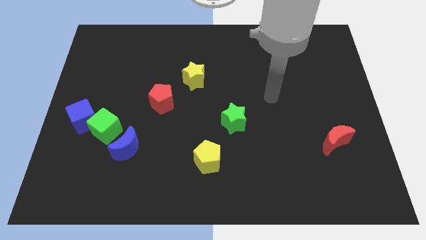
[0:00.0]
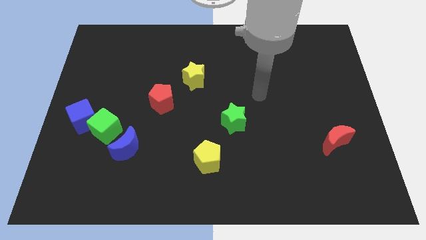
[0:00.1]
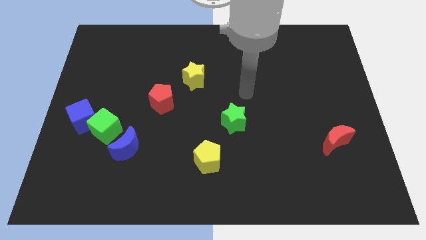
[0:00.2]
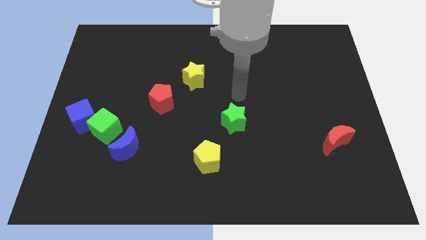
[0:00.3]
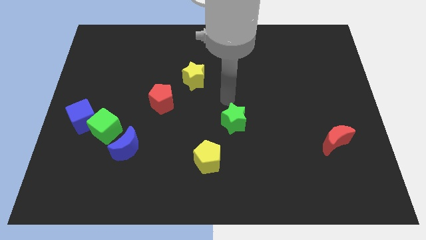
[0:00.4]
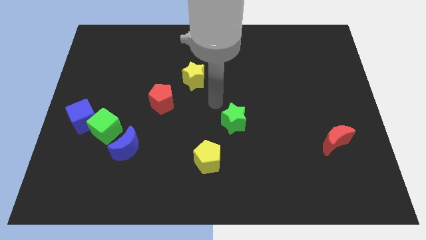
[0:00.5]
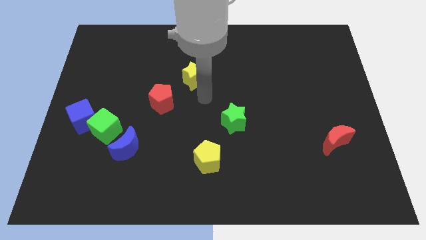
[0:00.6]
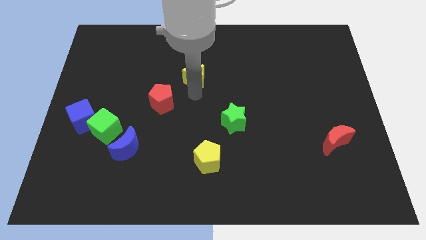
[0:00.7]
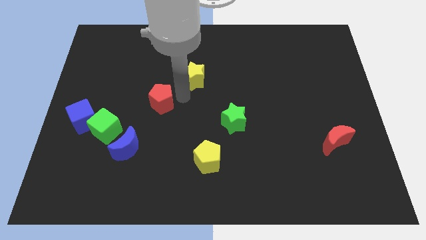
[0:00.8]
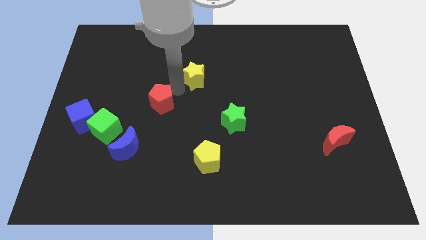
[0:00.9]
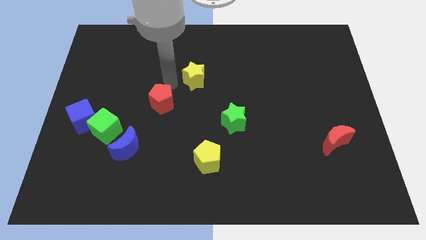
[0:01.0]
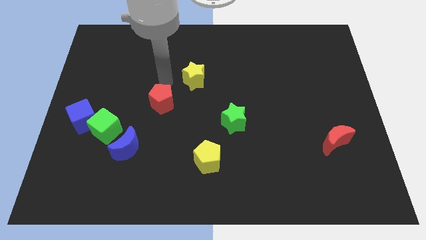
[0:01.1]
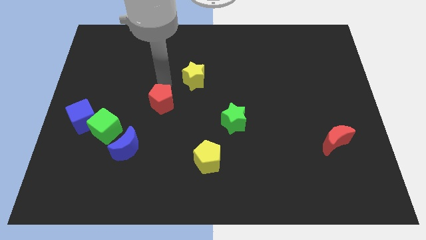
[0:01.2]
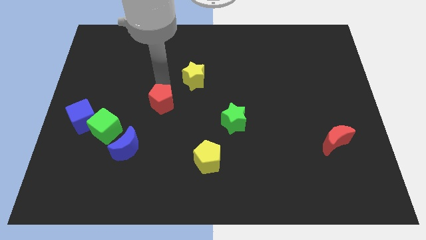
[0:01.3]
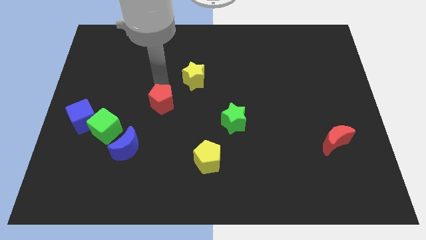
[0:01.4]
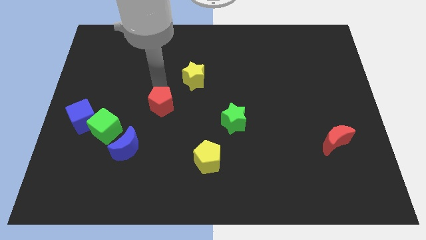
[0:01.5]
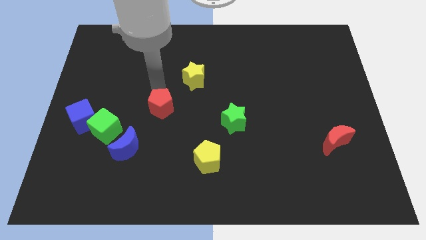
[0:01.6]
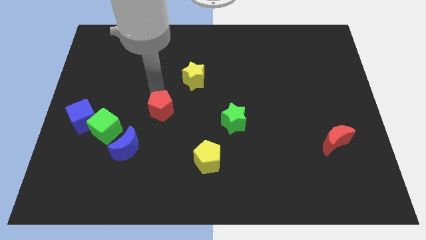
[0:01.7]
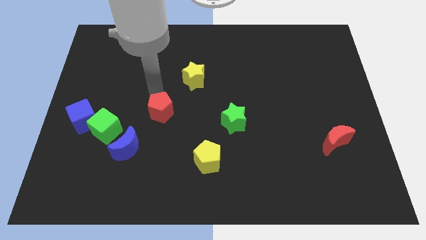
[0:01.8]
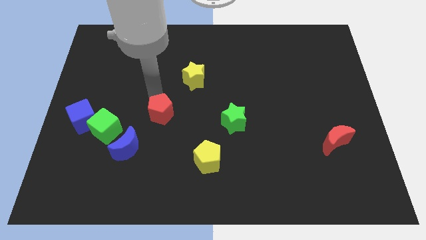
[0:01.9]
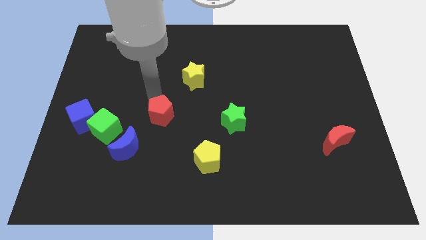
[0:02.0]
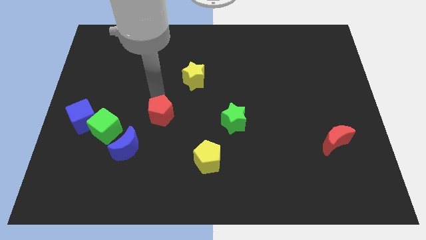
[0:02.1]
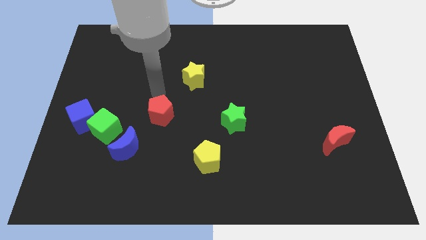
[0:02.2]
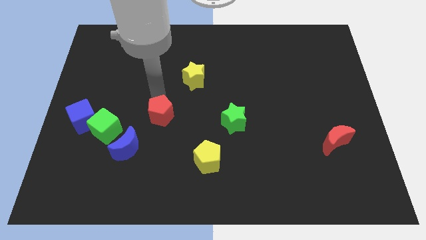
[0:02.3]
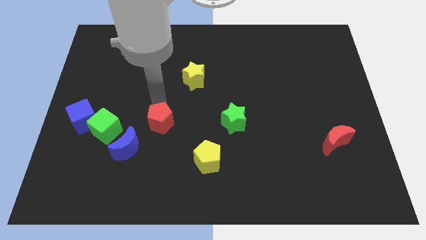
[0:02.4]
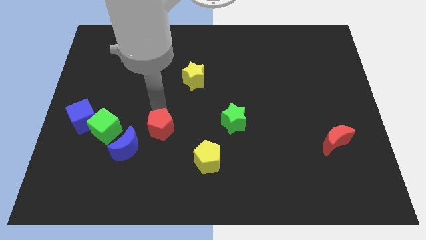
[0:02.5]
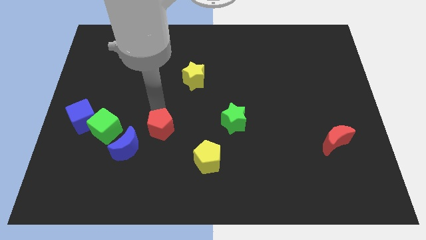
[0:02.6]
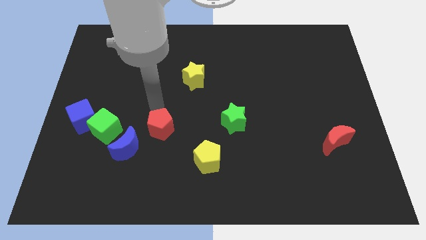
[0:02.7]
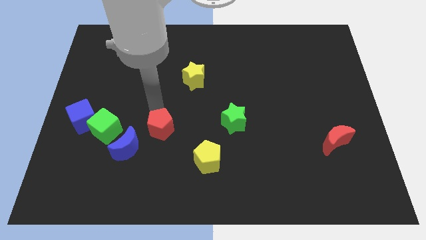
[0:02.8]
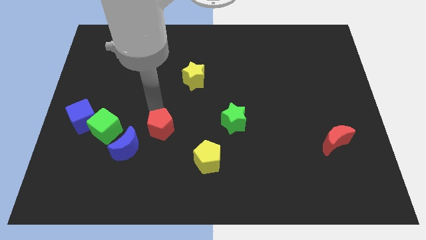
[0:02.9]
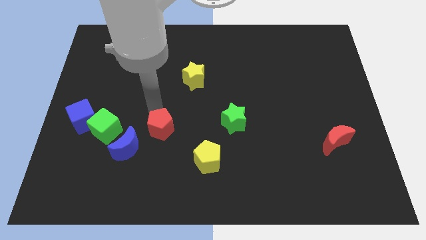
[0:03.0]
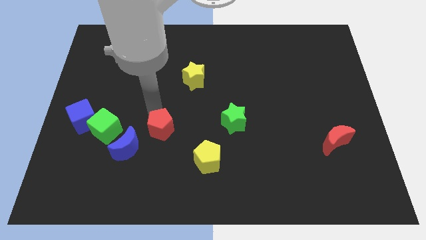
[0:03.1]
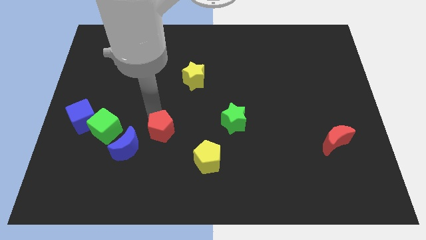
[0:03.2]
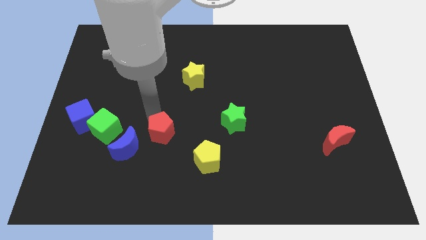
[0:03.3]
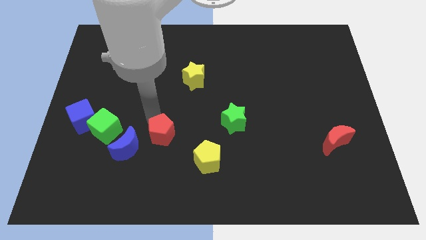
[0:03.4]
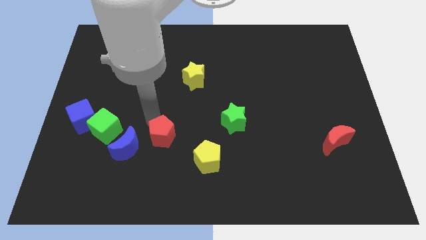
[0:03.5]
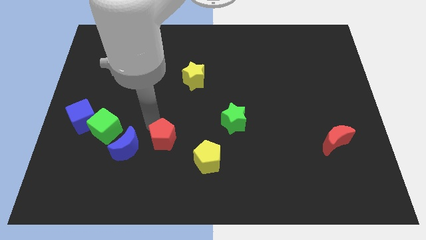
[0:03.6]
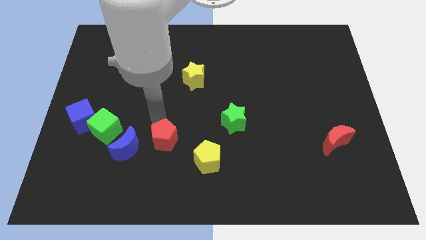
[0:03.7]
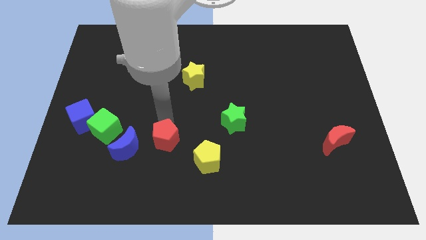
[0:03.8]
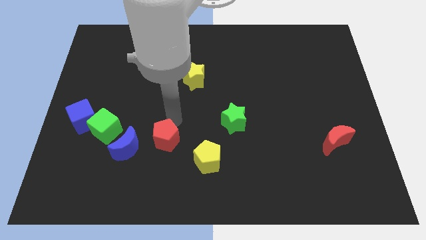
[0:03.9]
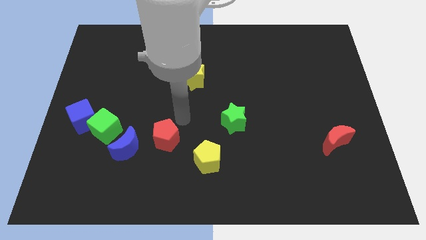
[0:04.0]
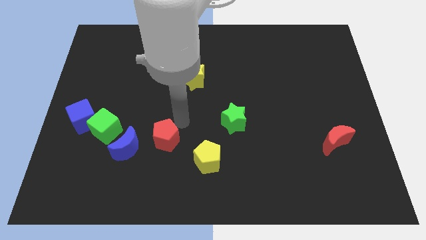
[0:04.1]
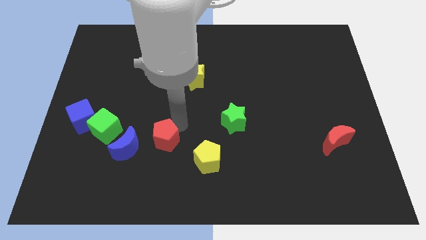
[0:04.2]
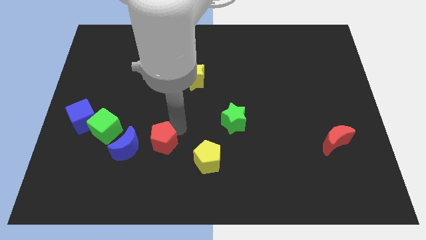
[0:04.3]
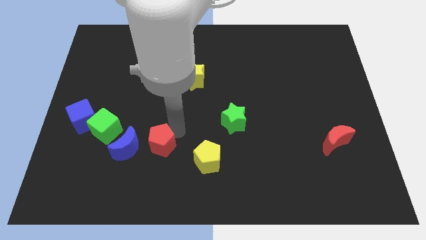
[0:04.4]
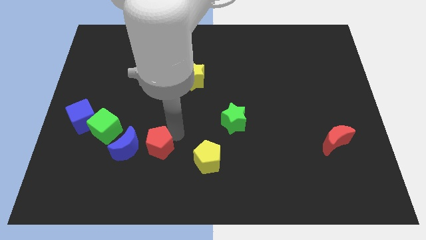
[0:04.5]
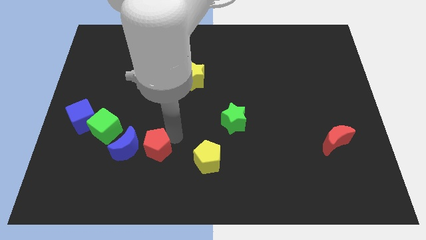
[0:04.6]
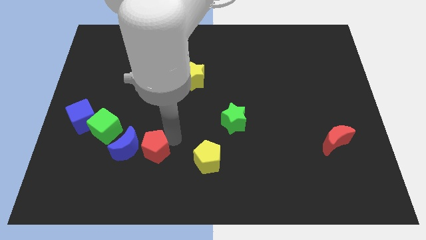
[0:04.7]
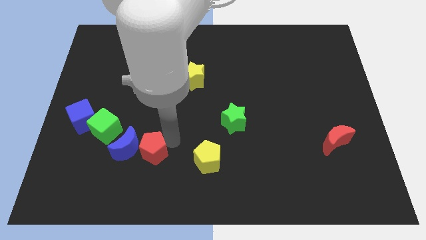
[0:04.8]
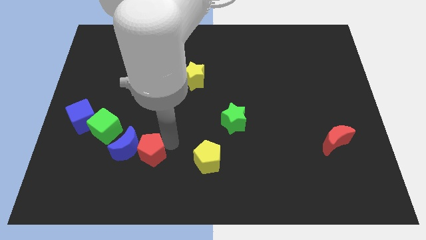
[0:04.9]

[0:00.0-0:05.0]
slide the red pentagon slightly downwards and left diagonally

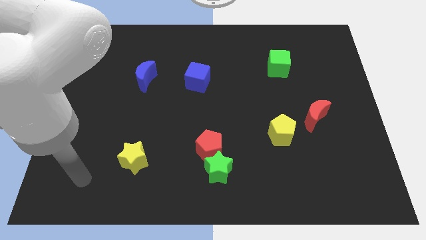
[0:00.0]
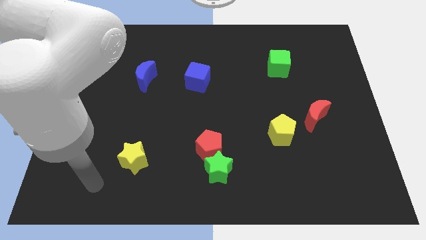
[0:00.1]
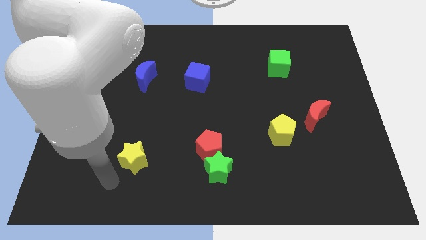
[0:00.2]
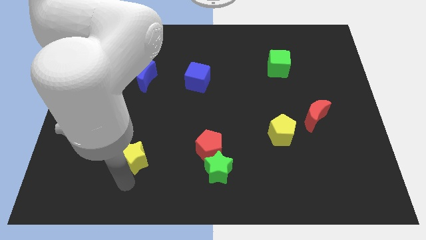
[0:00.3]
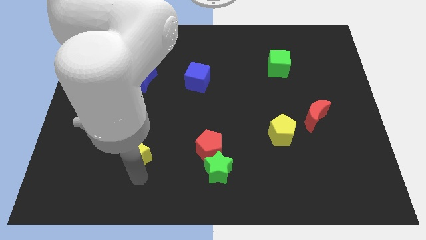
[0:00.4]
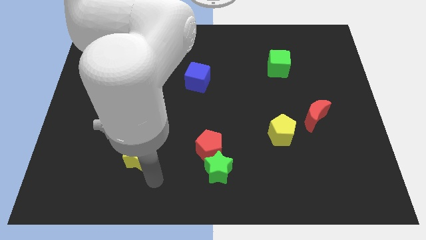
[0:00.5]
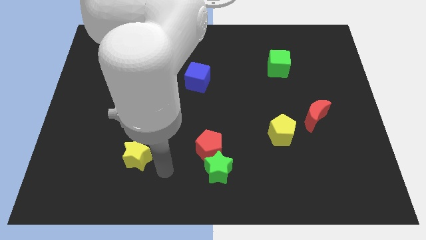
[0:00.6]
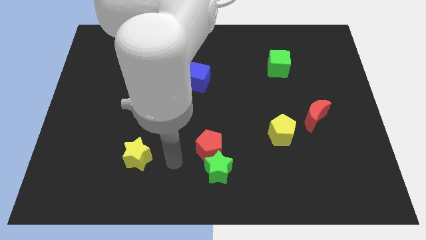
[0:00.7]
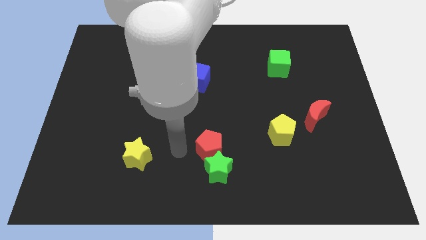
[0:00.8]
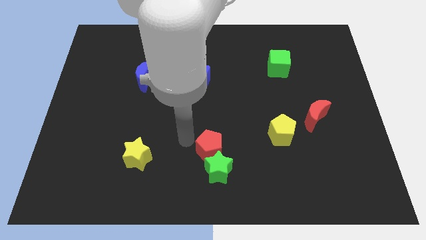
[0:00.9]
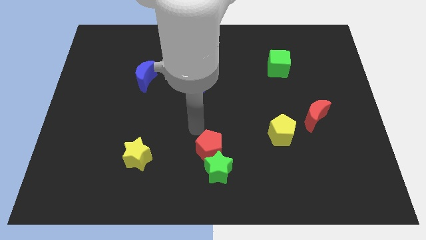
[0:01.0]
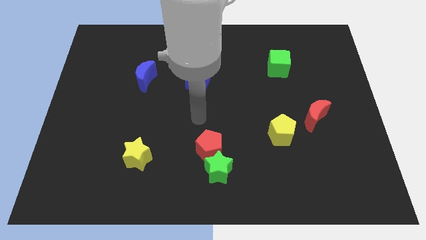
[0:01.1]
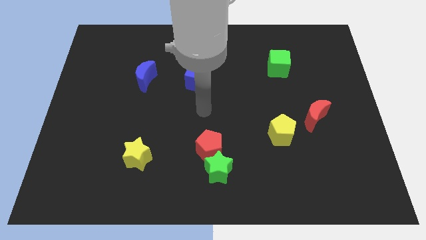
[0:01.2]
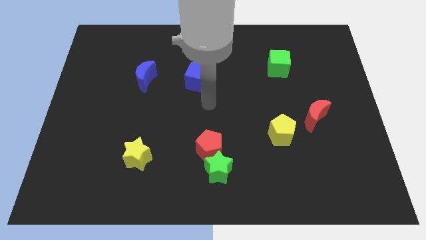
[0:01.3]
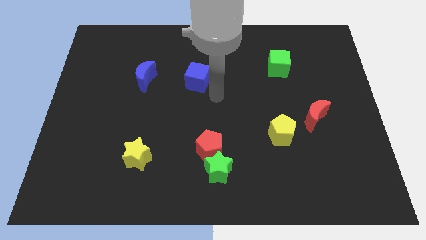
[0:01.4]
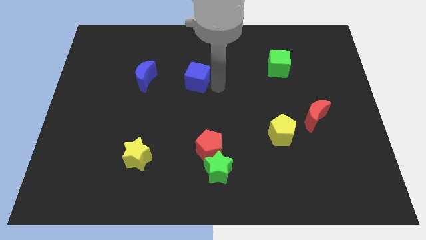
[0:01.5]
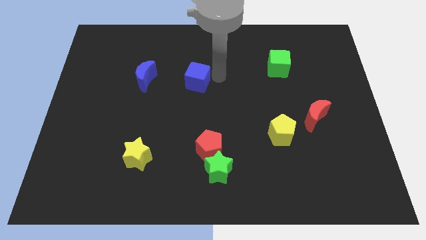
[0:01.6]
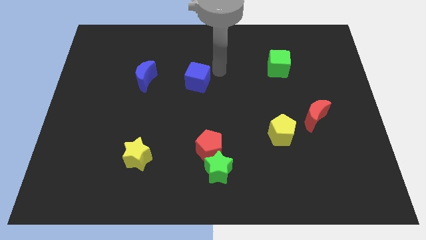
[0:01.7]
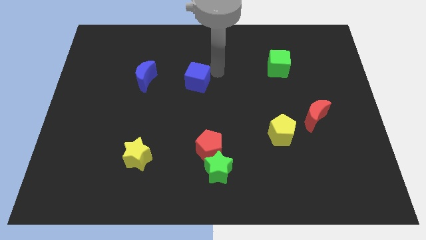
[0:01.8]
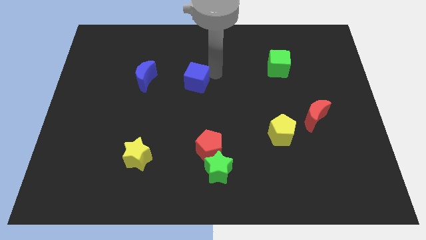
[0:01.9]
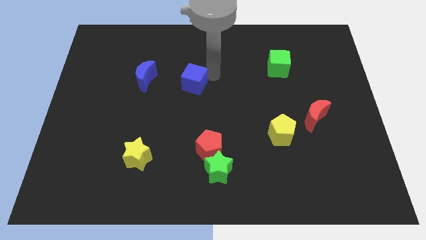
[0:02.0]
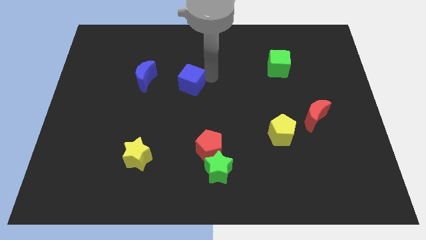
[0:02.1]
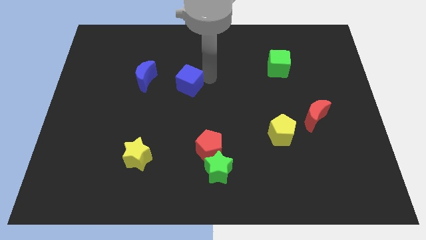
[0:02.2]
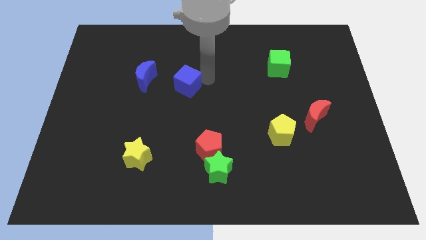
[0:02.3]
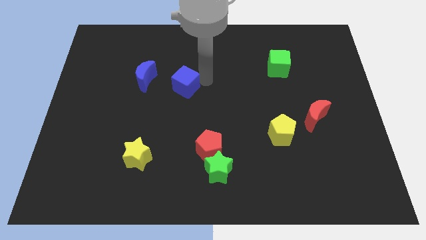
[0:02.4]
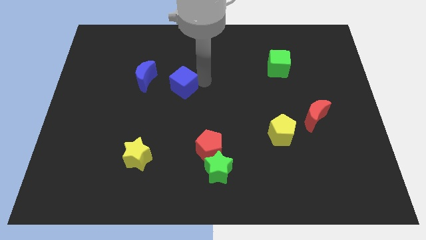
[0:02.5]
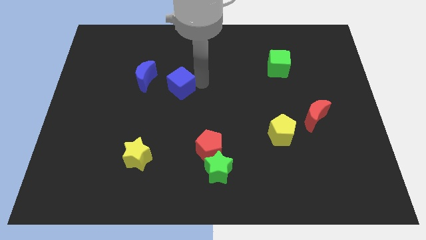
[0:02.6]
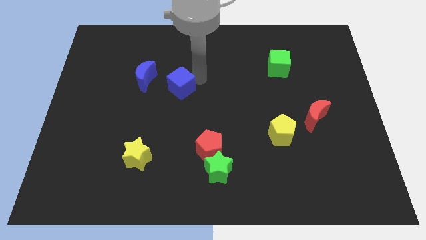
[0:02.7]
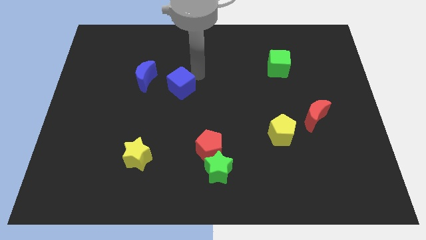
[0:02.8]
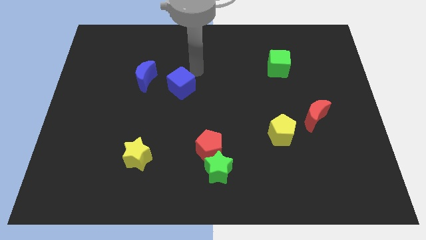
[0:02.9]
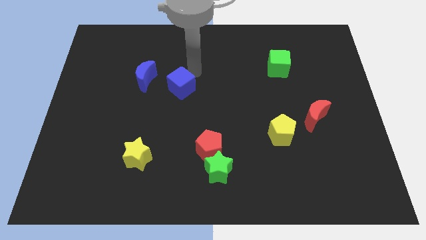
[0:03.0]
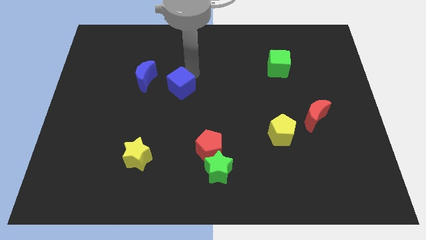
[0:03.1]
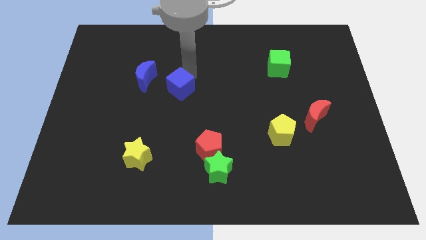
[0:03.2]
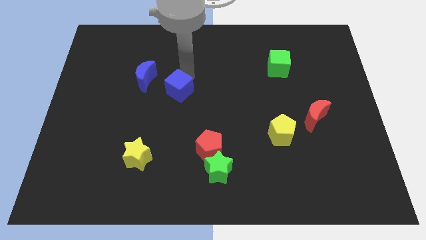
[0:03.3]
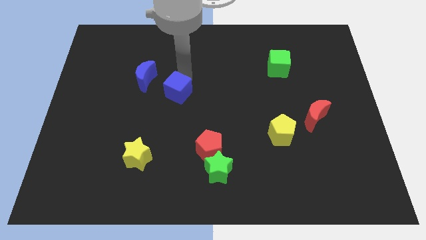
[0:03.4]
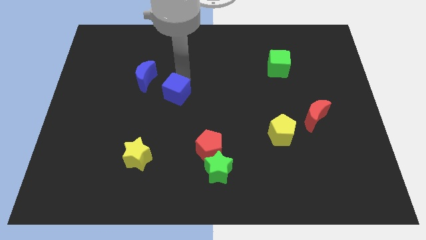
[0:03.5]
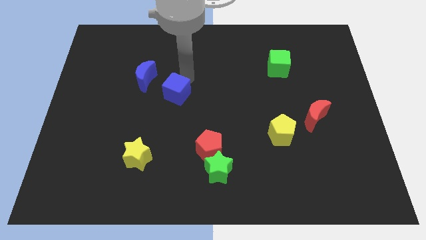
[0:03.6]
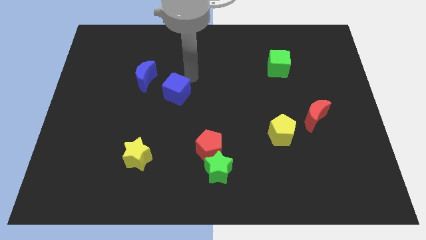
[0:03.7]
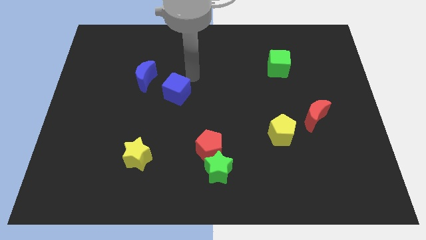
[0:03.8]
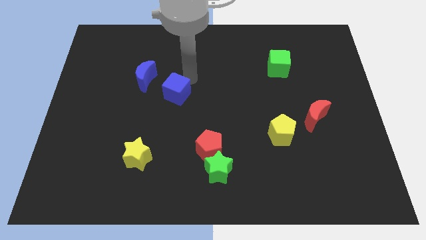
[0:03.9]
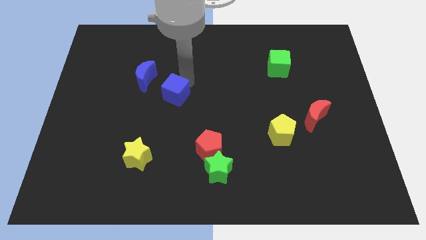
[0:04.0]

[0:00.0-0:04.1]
slide the blue cube a little bit downwards and left
